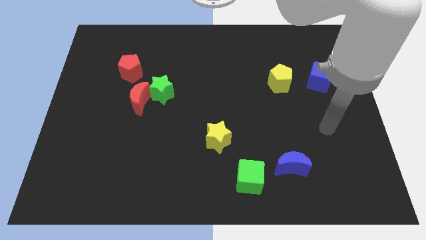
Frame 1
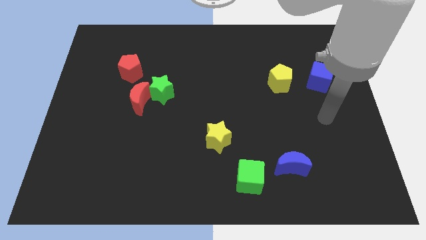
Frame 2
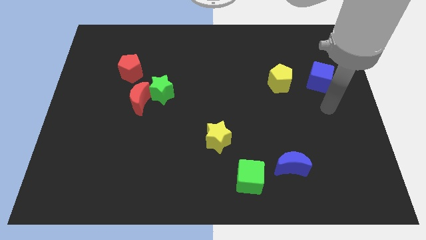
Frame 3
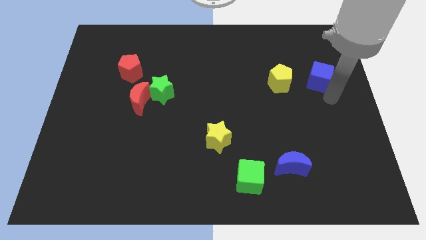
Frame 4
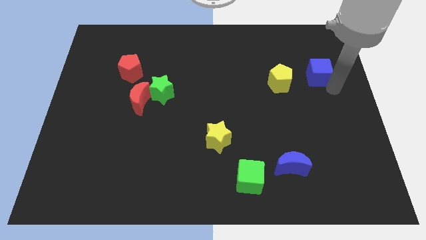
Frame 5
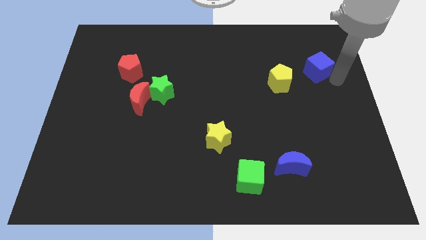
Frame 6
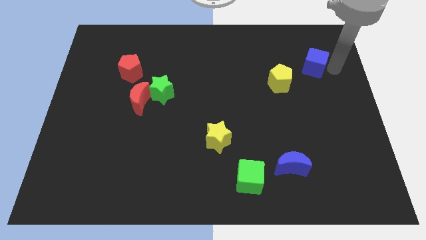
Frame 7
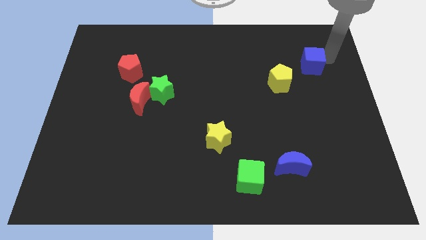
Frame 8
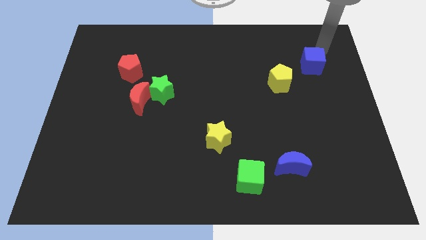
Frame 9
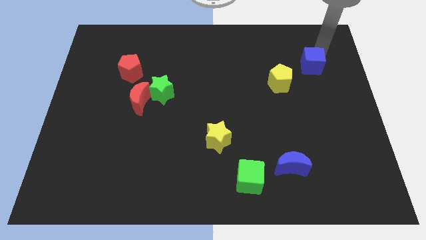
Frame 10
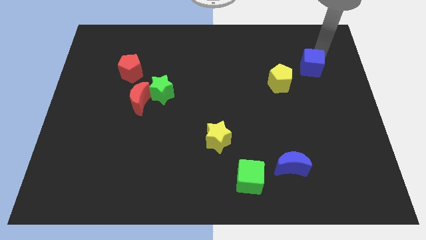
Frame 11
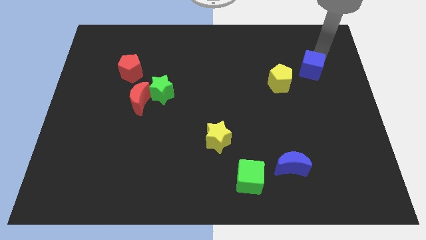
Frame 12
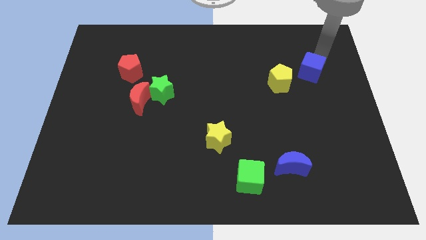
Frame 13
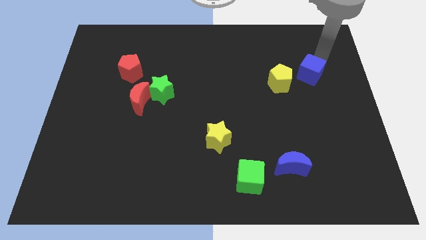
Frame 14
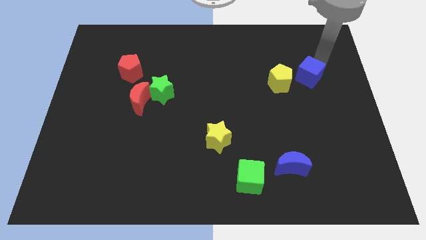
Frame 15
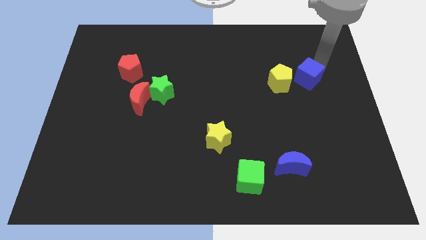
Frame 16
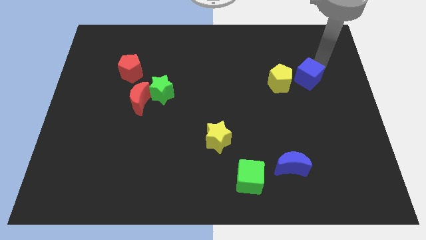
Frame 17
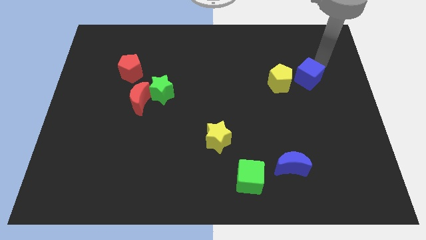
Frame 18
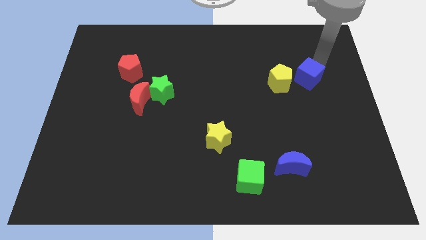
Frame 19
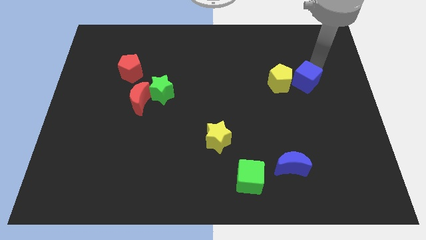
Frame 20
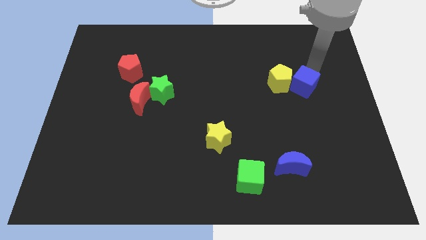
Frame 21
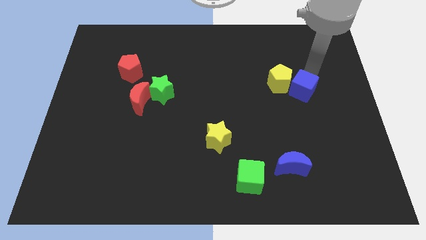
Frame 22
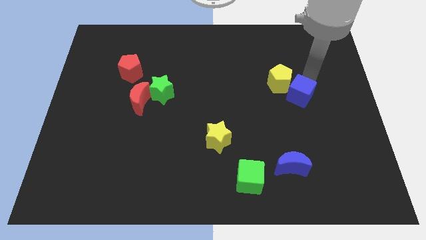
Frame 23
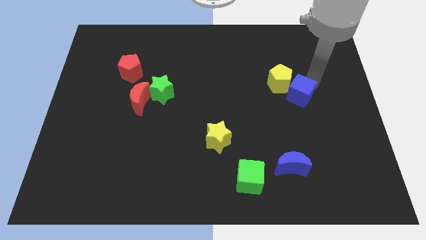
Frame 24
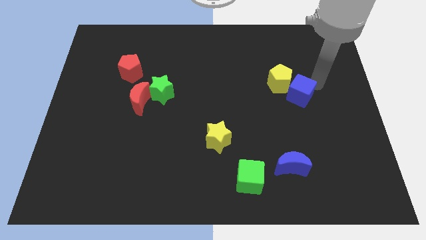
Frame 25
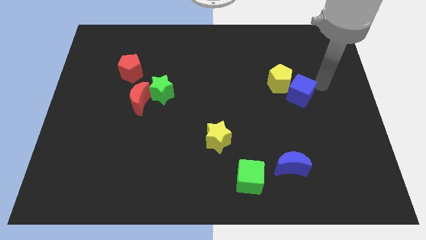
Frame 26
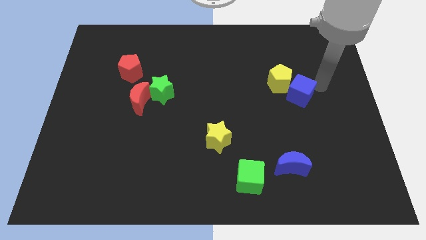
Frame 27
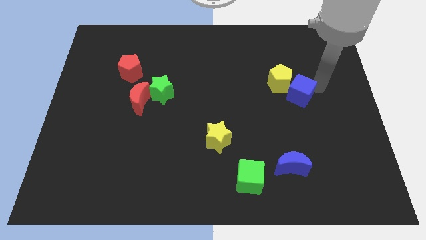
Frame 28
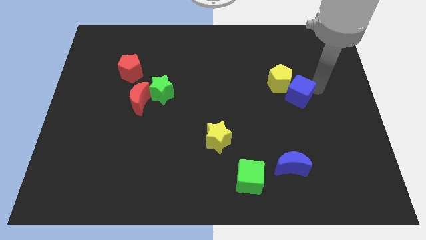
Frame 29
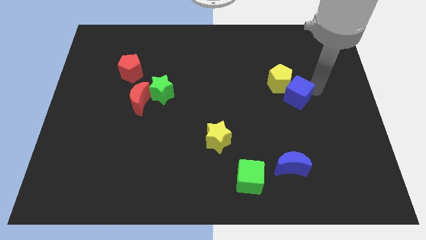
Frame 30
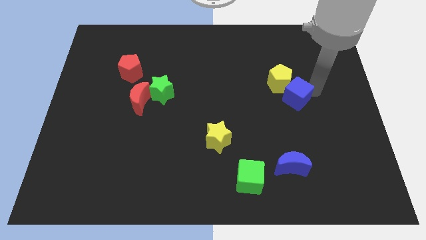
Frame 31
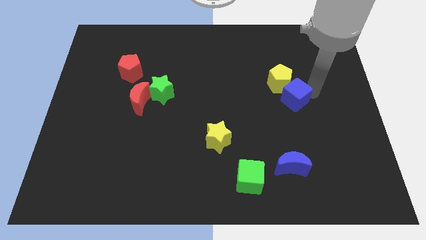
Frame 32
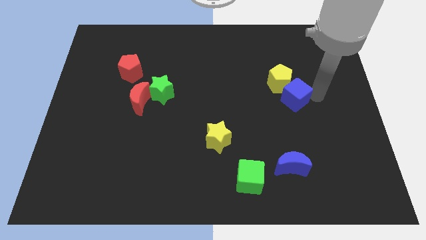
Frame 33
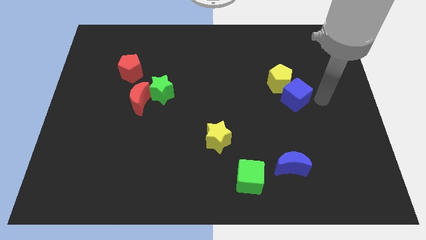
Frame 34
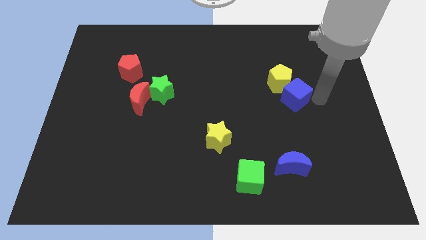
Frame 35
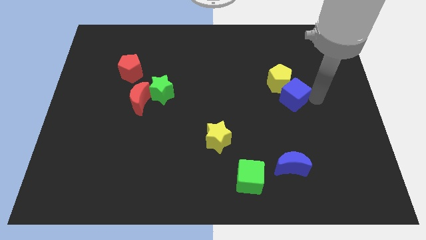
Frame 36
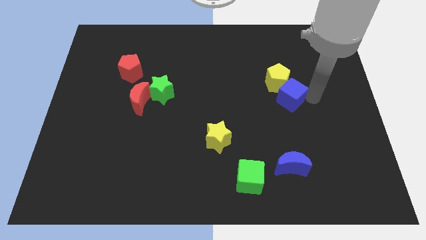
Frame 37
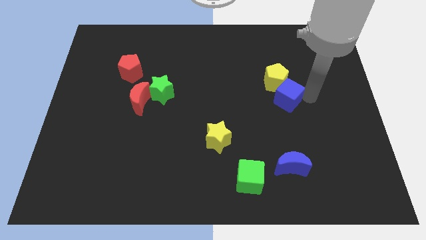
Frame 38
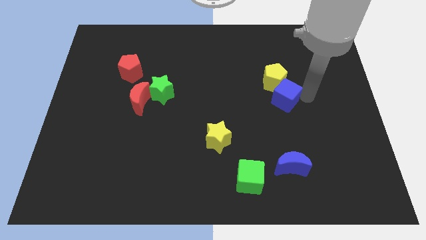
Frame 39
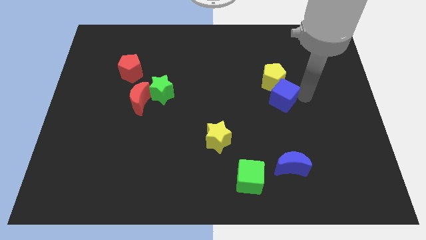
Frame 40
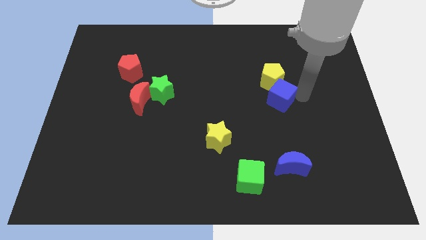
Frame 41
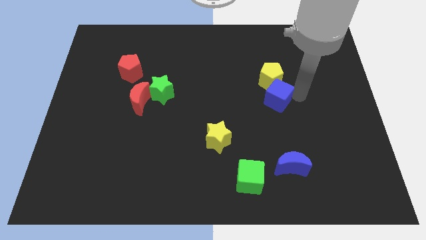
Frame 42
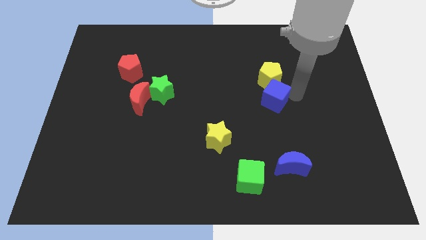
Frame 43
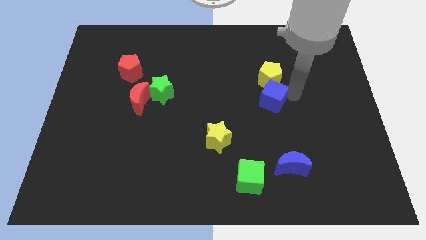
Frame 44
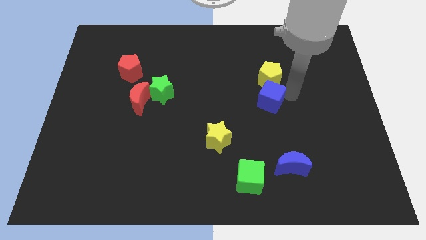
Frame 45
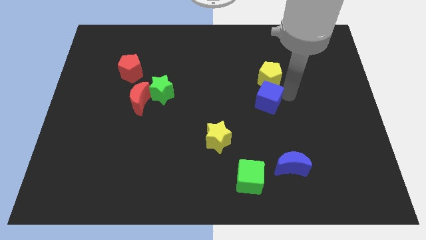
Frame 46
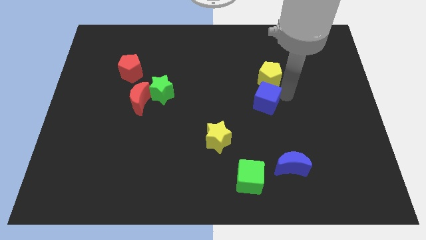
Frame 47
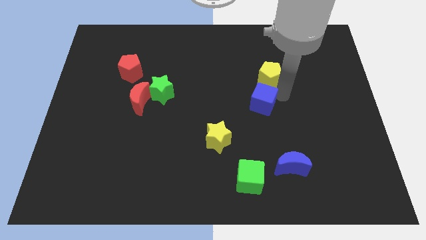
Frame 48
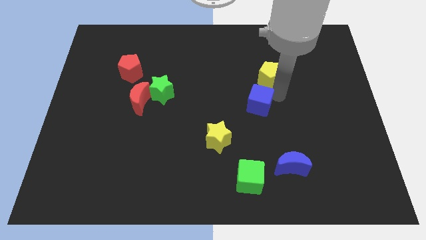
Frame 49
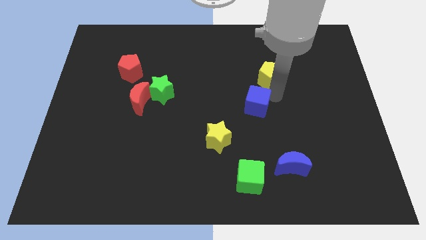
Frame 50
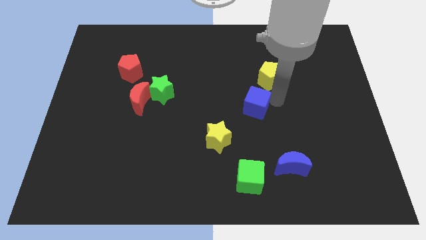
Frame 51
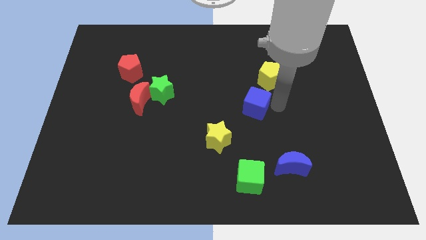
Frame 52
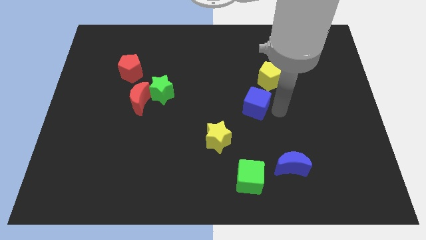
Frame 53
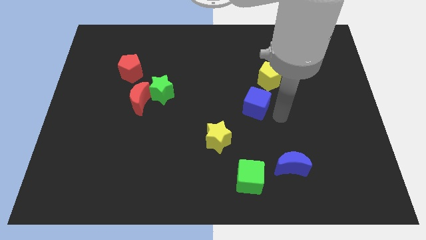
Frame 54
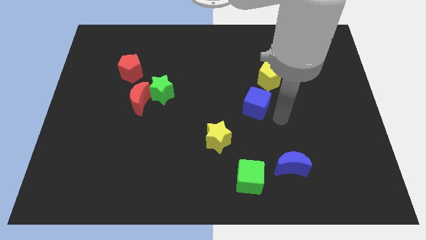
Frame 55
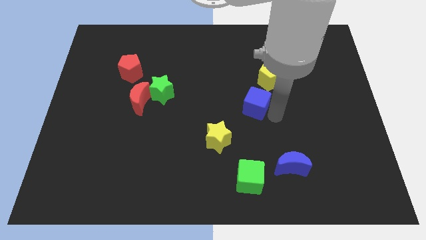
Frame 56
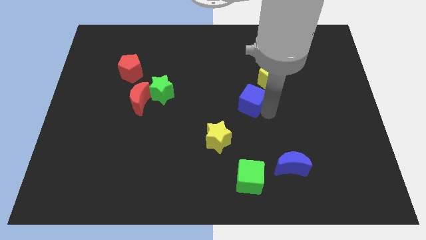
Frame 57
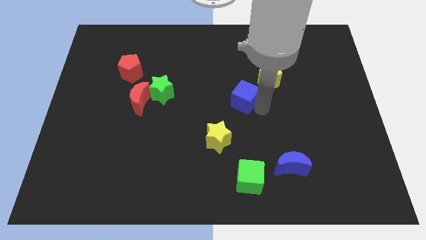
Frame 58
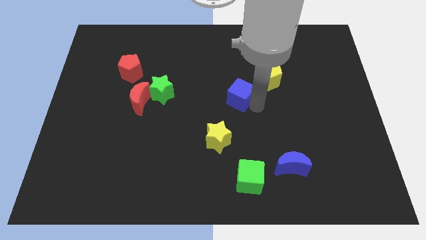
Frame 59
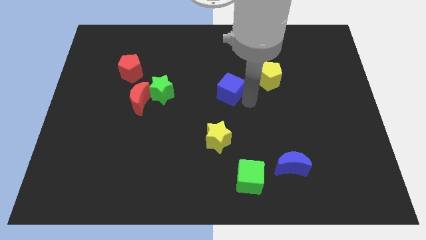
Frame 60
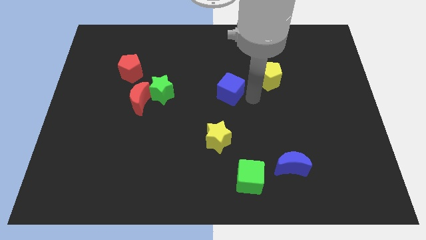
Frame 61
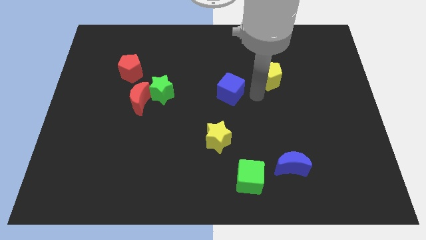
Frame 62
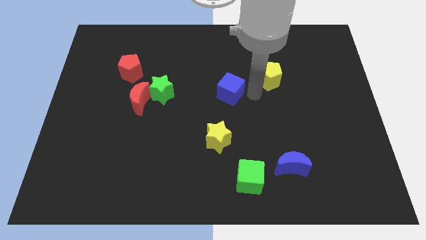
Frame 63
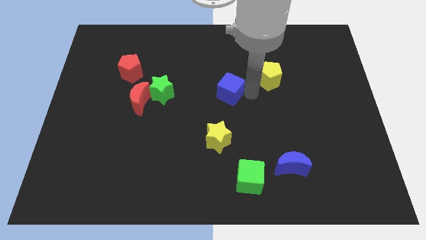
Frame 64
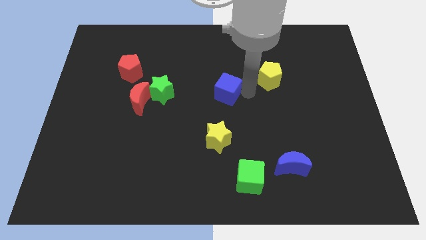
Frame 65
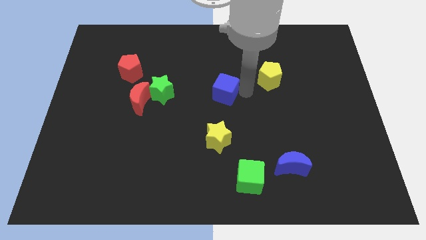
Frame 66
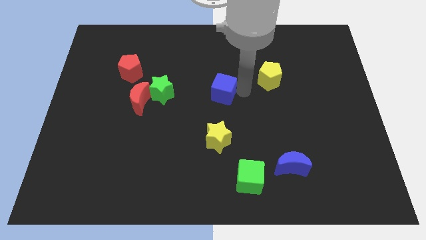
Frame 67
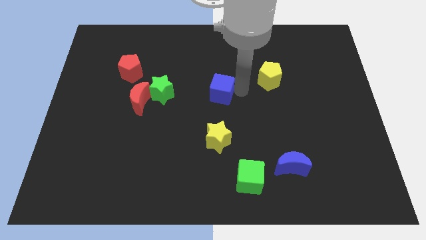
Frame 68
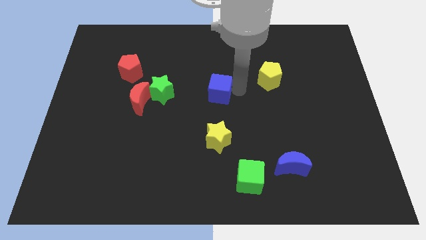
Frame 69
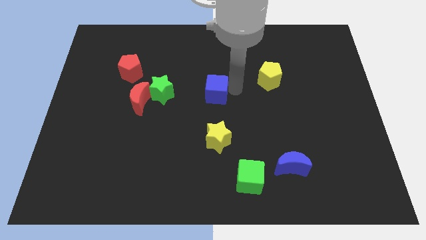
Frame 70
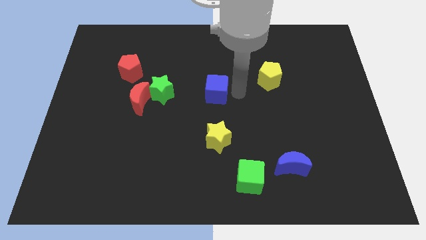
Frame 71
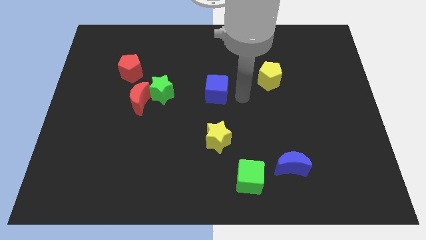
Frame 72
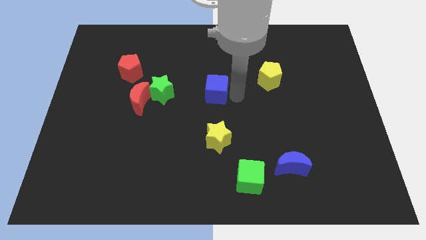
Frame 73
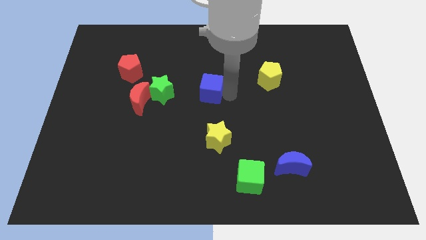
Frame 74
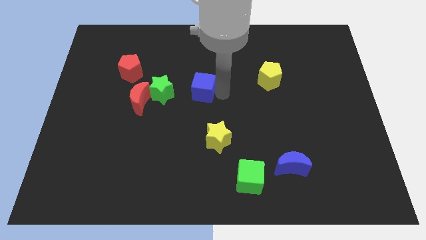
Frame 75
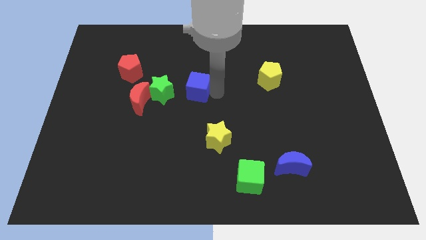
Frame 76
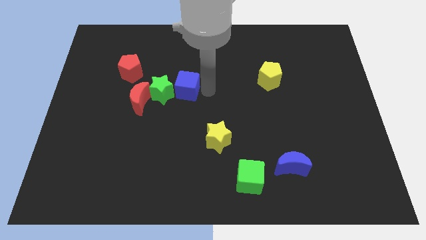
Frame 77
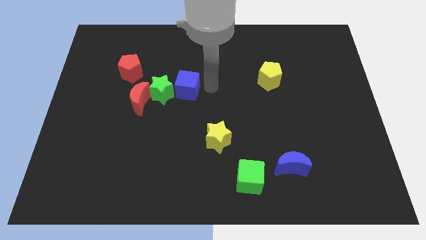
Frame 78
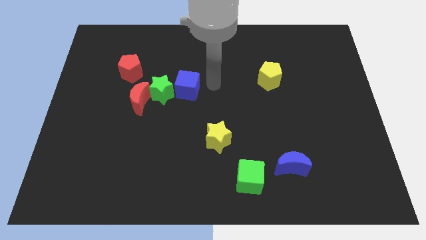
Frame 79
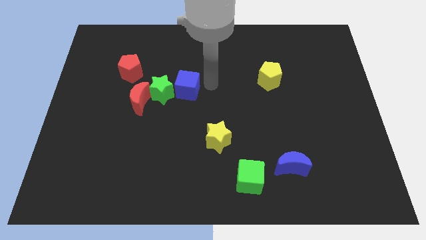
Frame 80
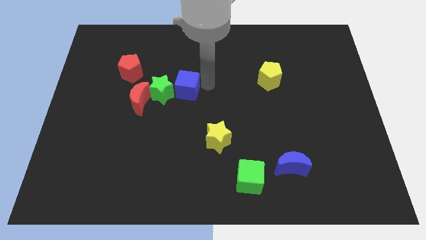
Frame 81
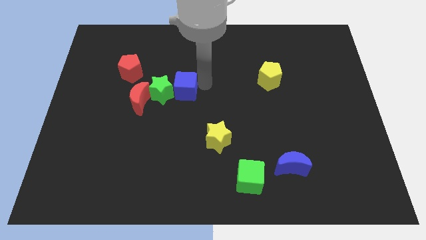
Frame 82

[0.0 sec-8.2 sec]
move the blue cube close to the green star
